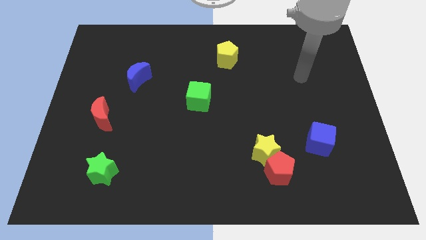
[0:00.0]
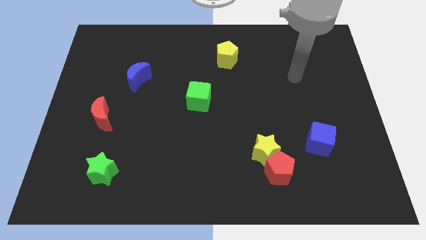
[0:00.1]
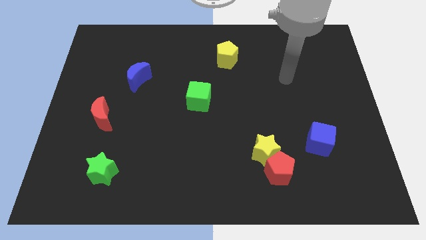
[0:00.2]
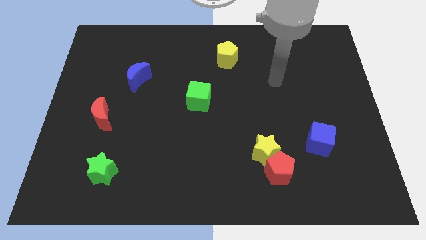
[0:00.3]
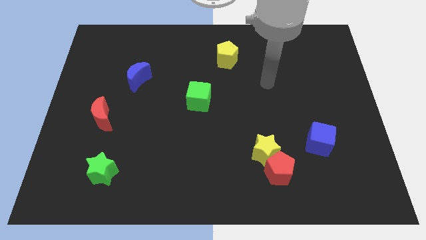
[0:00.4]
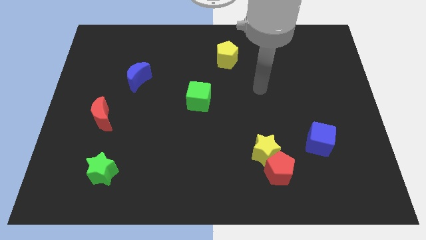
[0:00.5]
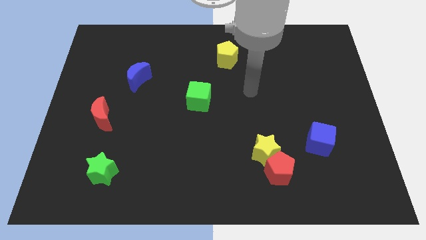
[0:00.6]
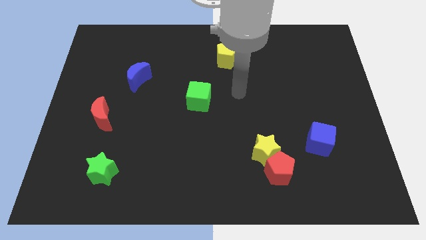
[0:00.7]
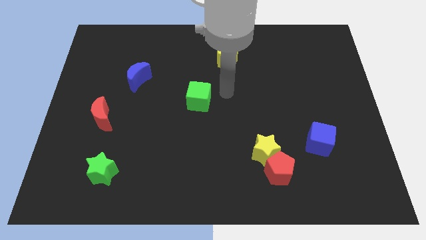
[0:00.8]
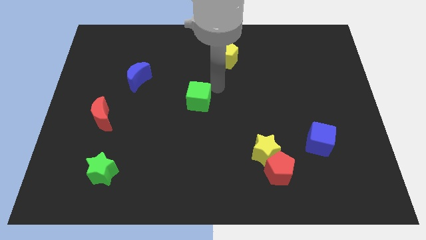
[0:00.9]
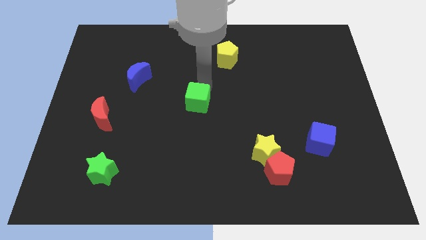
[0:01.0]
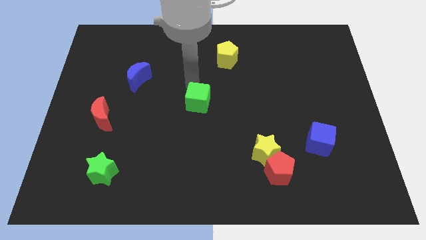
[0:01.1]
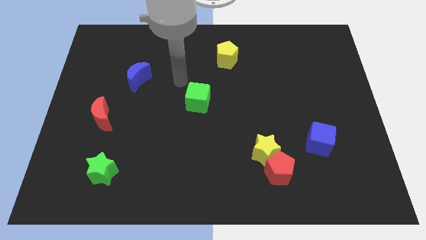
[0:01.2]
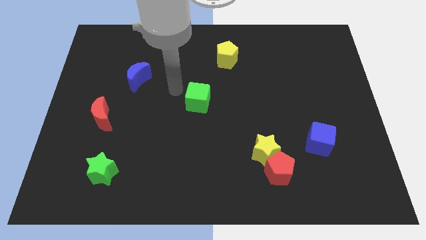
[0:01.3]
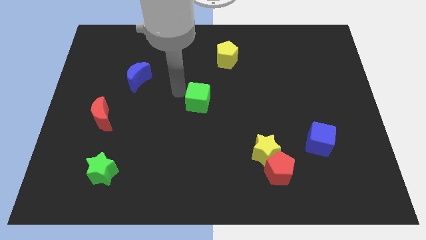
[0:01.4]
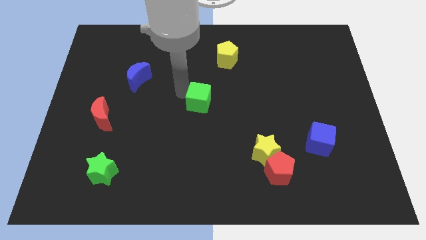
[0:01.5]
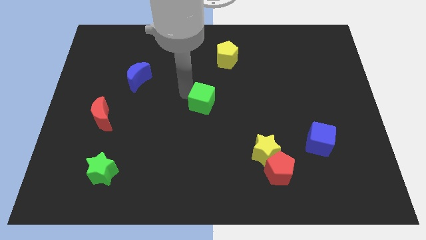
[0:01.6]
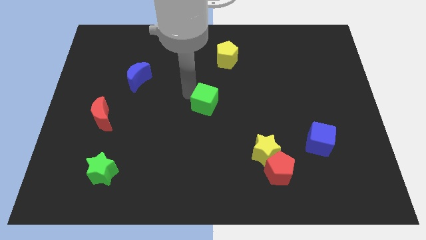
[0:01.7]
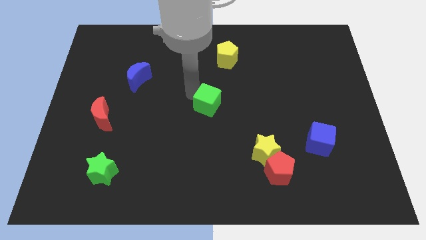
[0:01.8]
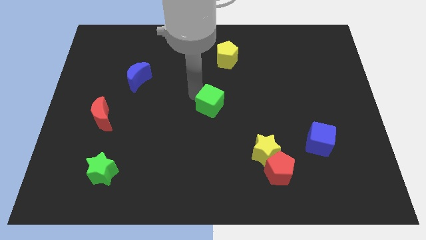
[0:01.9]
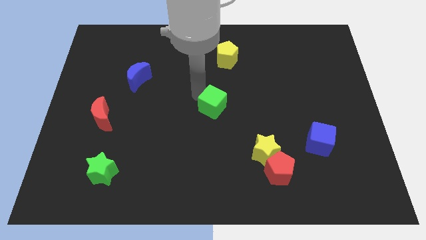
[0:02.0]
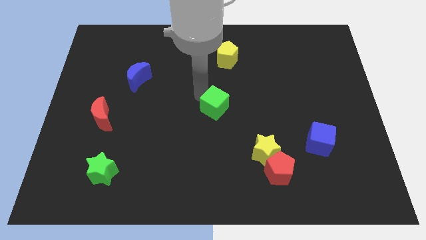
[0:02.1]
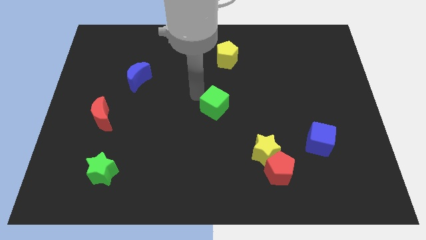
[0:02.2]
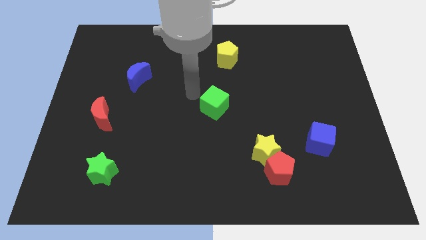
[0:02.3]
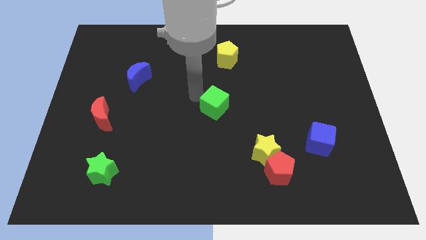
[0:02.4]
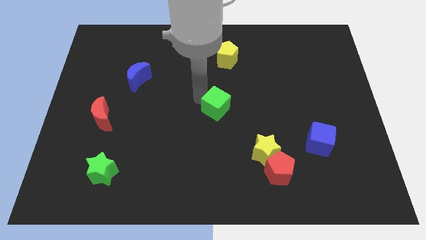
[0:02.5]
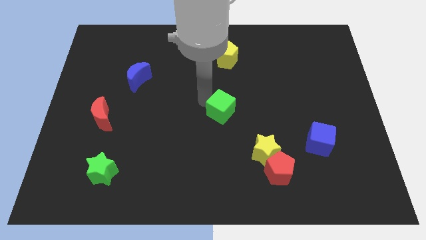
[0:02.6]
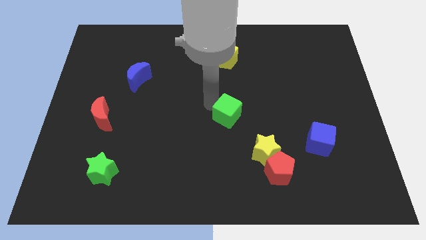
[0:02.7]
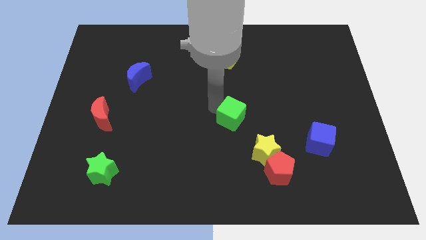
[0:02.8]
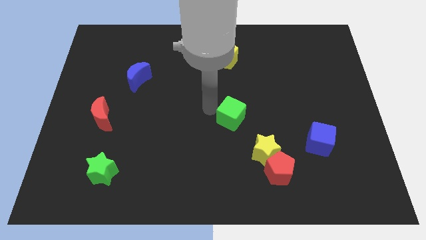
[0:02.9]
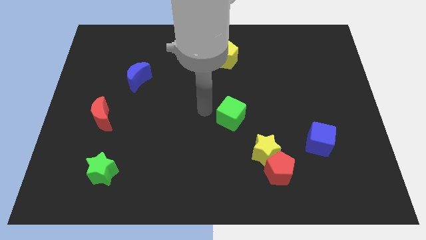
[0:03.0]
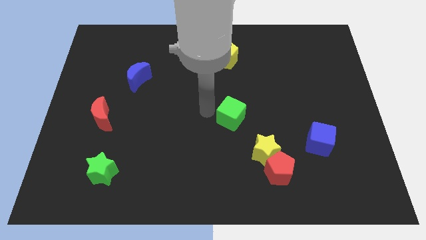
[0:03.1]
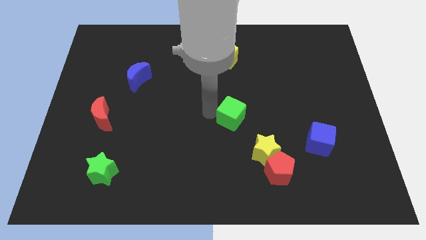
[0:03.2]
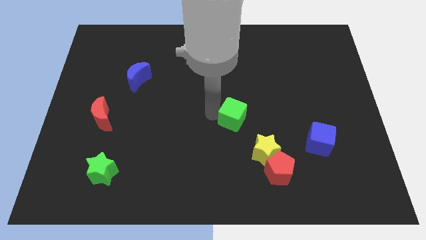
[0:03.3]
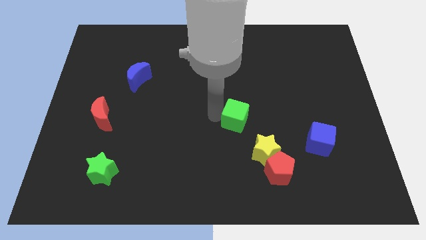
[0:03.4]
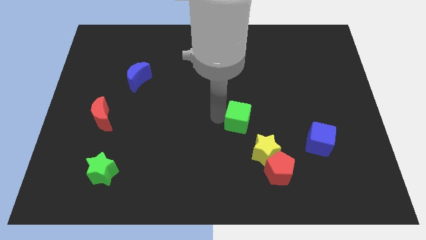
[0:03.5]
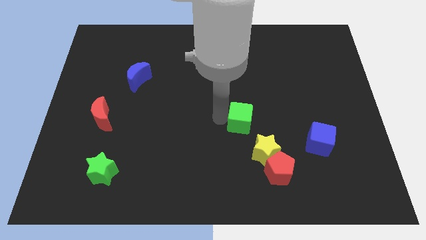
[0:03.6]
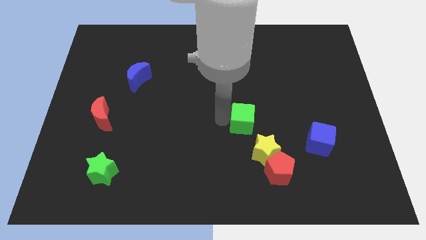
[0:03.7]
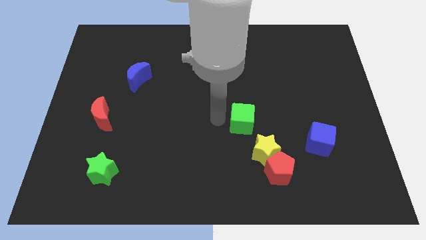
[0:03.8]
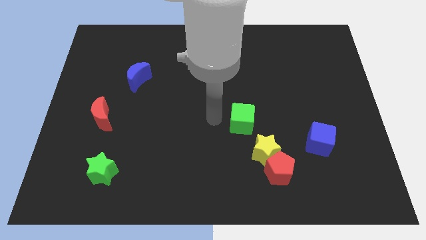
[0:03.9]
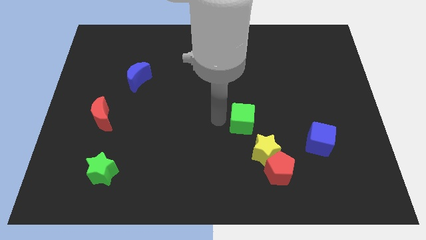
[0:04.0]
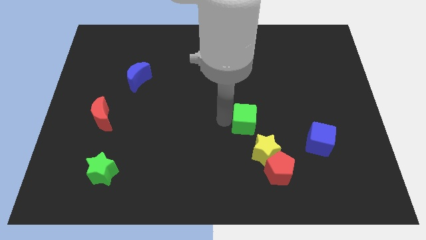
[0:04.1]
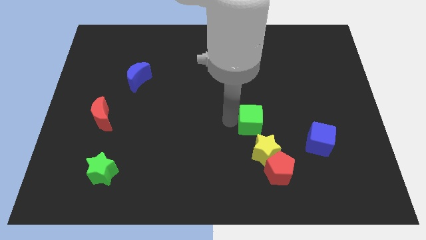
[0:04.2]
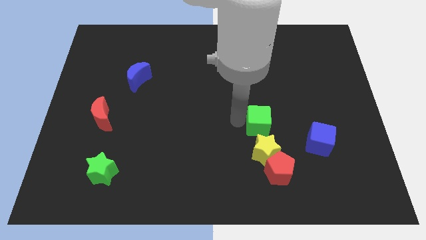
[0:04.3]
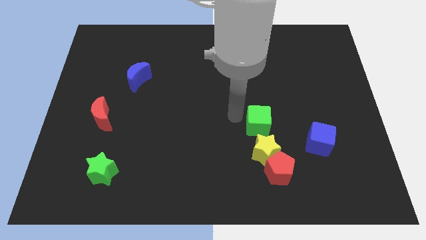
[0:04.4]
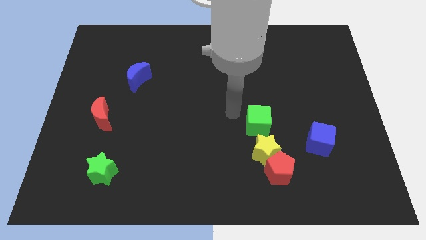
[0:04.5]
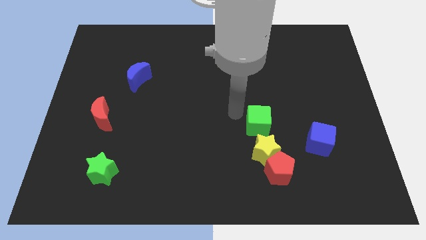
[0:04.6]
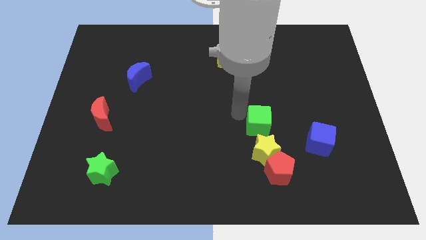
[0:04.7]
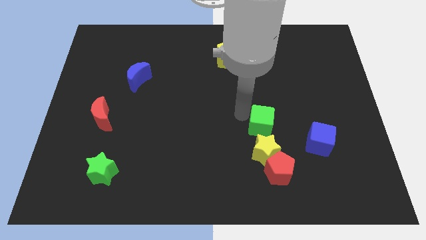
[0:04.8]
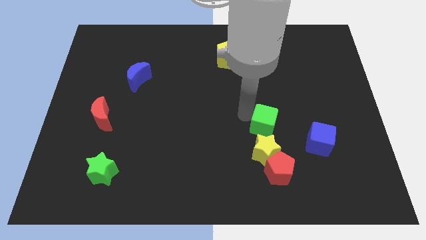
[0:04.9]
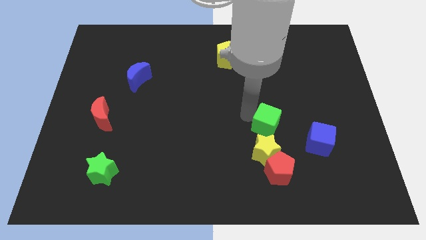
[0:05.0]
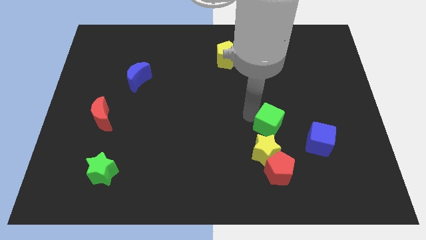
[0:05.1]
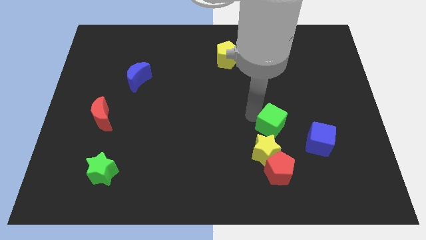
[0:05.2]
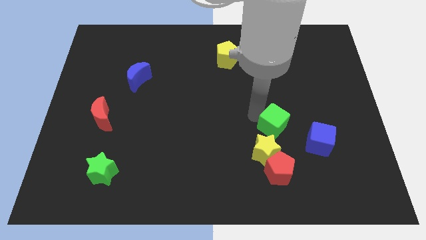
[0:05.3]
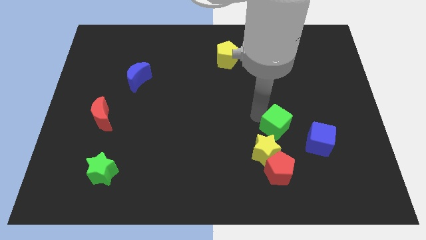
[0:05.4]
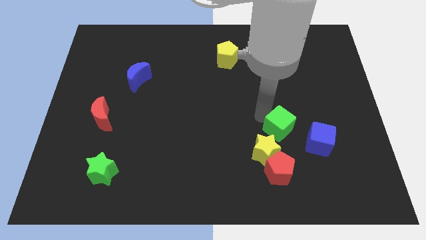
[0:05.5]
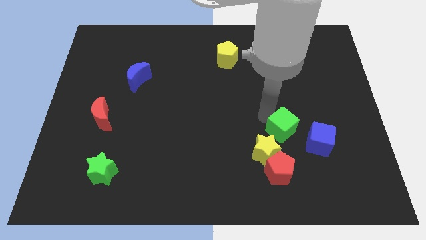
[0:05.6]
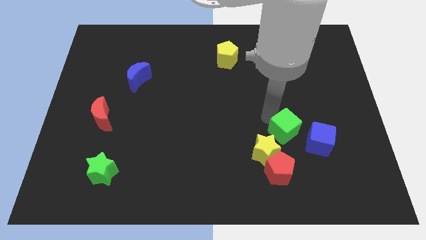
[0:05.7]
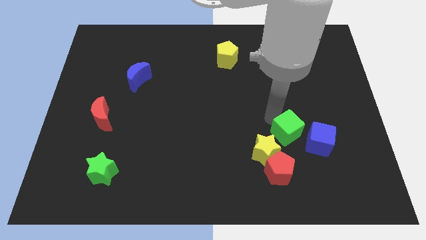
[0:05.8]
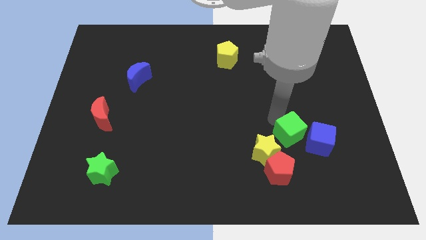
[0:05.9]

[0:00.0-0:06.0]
slide the green cube to the right side of the yellow star

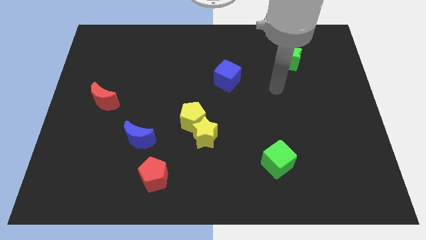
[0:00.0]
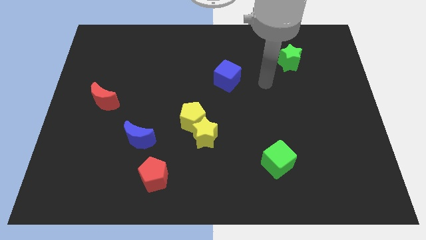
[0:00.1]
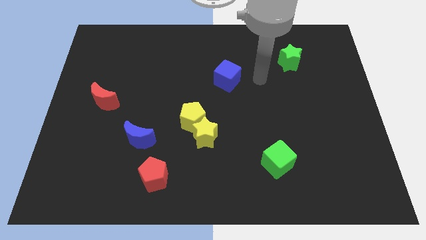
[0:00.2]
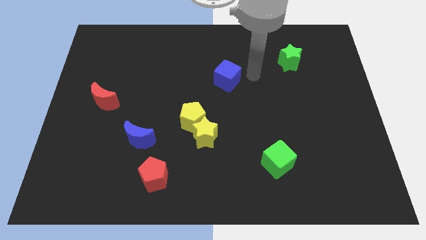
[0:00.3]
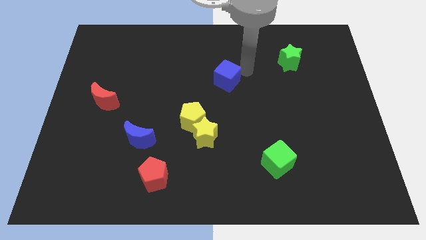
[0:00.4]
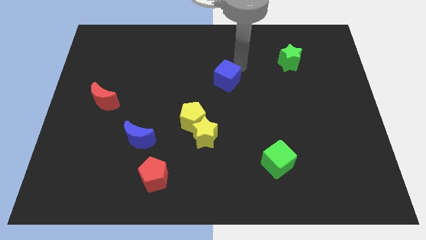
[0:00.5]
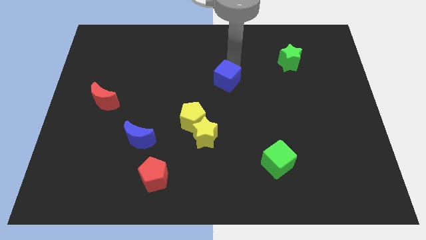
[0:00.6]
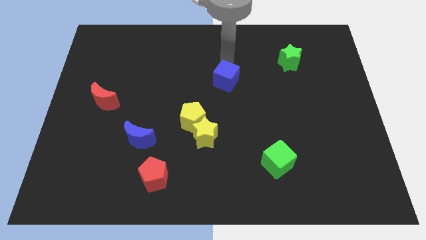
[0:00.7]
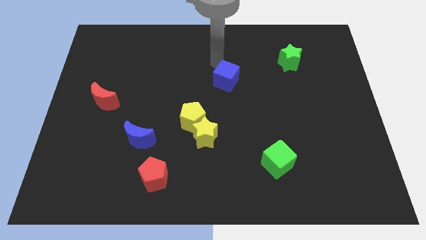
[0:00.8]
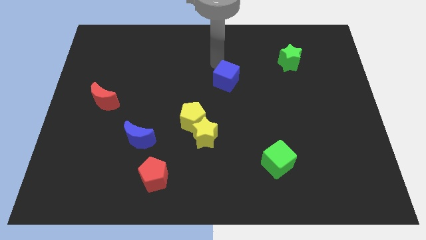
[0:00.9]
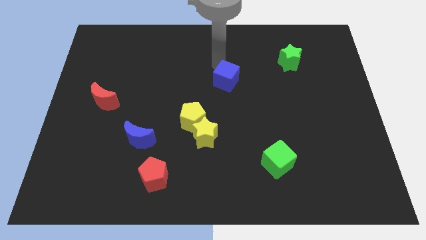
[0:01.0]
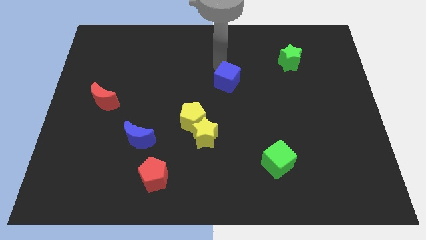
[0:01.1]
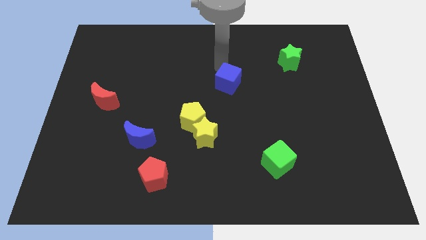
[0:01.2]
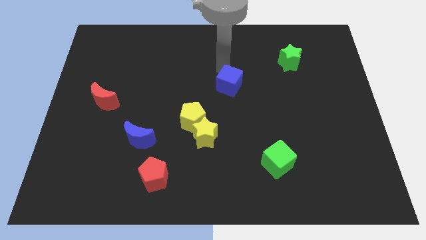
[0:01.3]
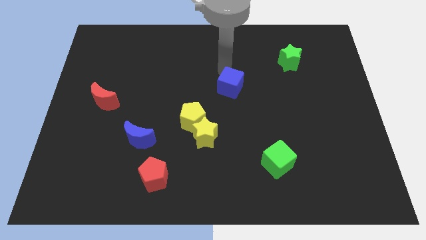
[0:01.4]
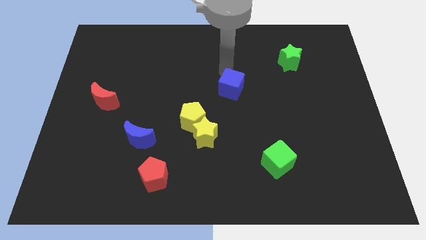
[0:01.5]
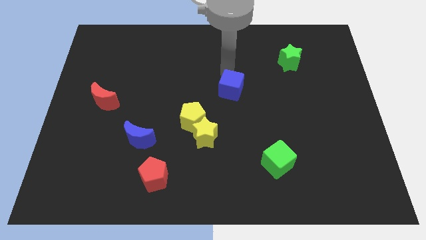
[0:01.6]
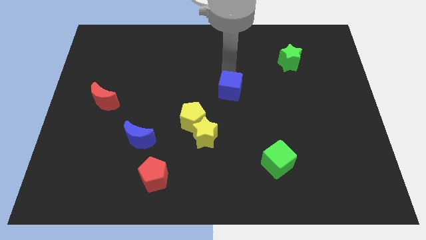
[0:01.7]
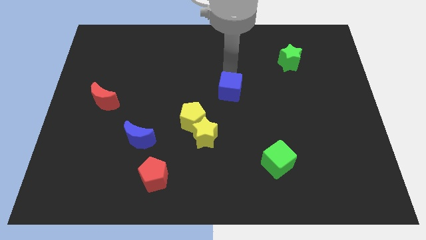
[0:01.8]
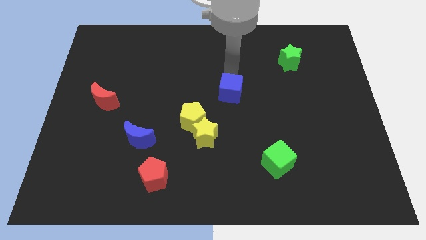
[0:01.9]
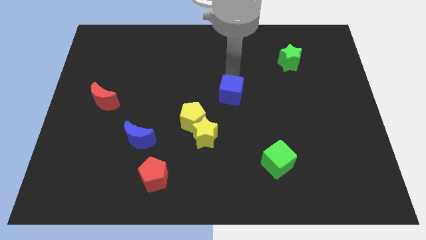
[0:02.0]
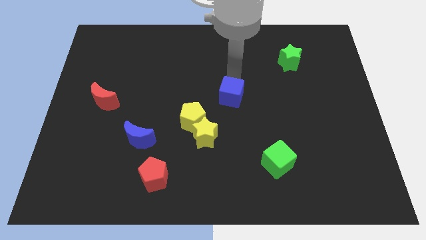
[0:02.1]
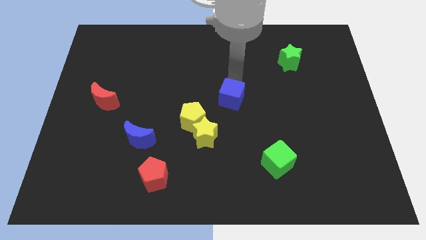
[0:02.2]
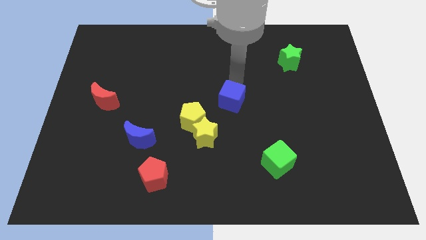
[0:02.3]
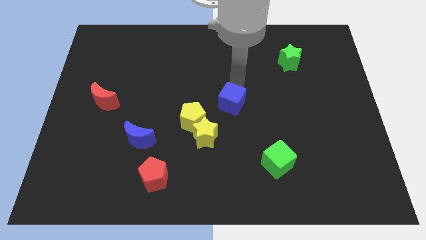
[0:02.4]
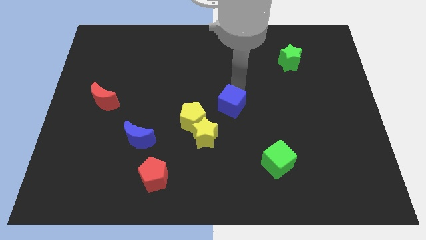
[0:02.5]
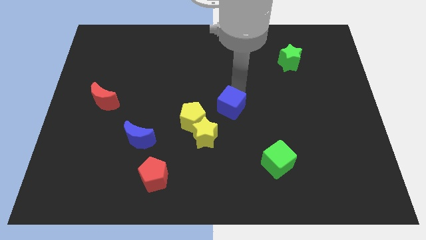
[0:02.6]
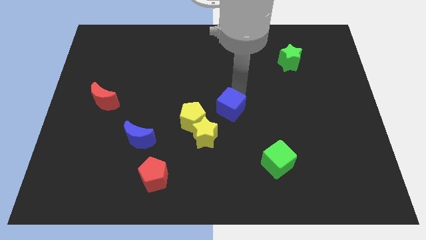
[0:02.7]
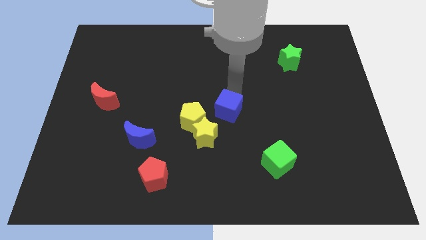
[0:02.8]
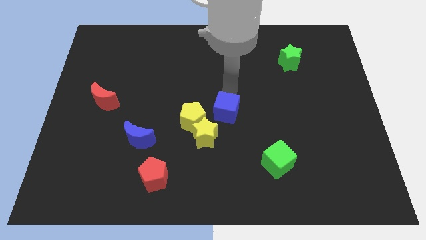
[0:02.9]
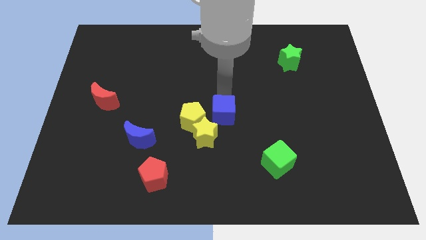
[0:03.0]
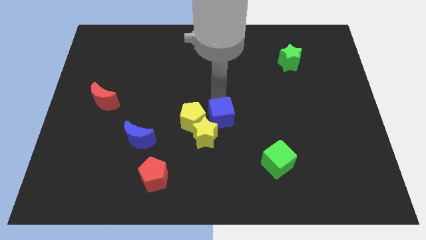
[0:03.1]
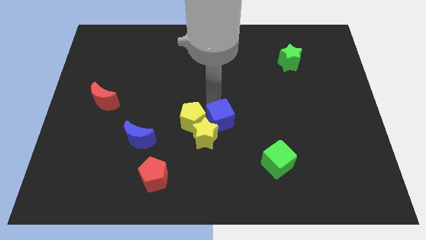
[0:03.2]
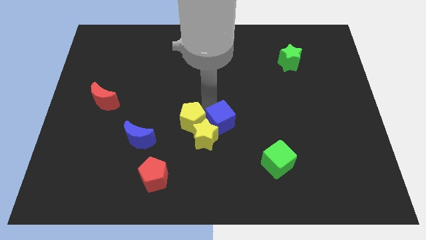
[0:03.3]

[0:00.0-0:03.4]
push the blue cube right of the yellow star
